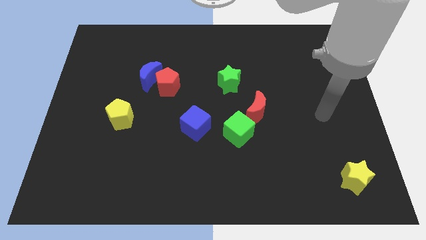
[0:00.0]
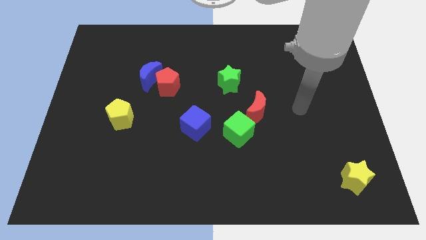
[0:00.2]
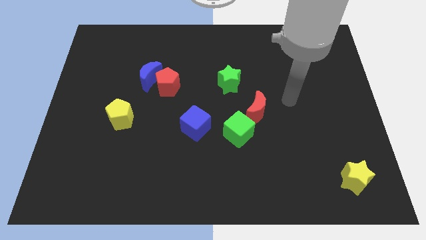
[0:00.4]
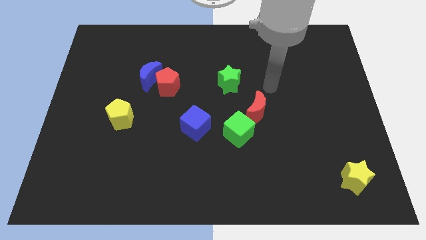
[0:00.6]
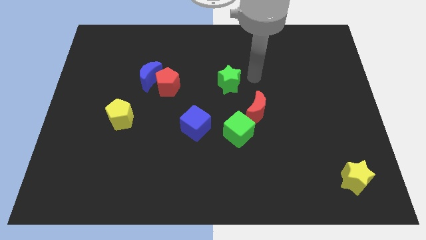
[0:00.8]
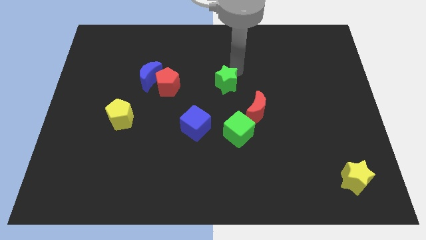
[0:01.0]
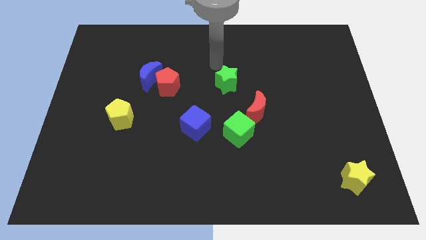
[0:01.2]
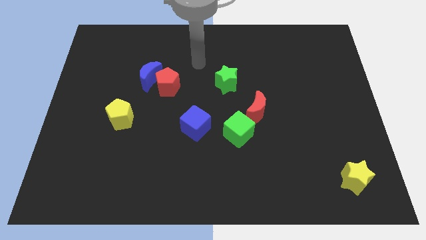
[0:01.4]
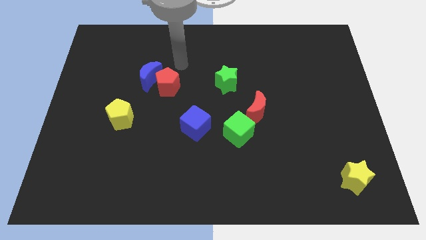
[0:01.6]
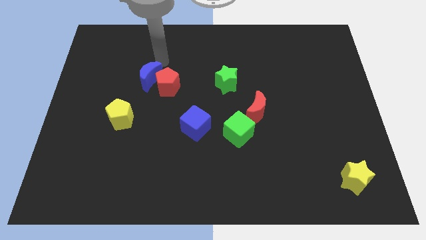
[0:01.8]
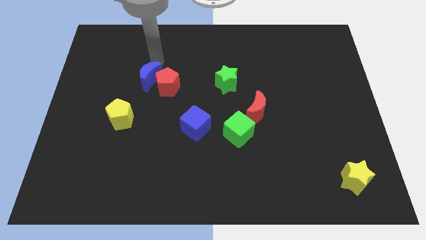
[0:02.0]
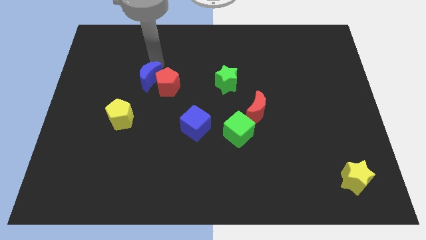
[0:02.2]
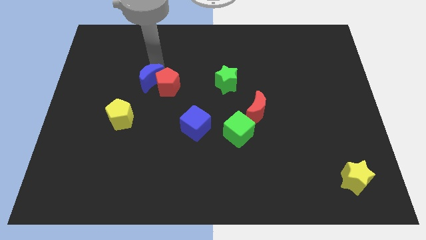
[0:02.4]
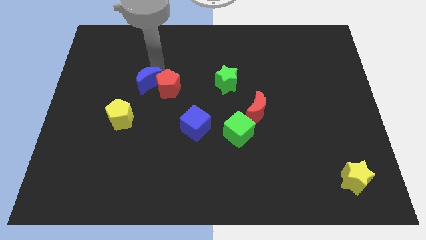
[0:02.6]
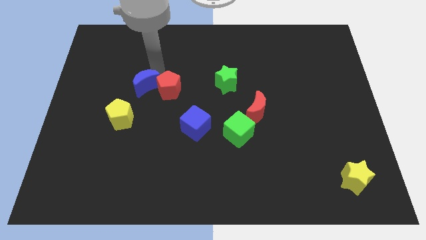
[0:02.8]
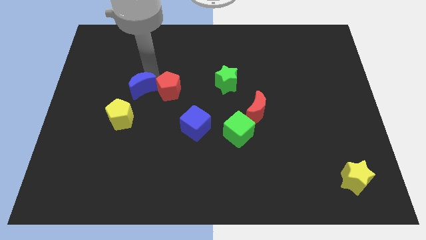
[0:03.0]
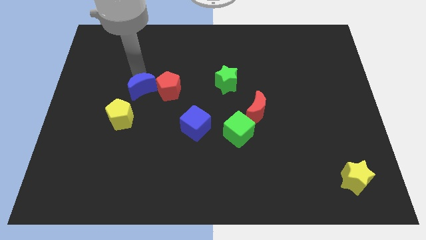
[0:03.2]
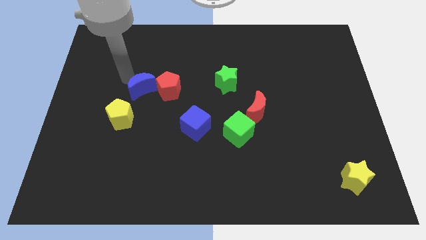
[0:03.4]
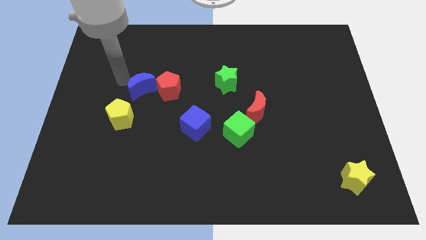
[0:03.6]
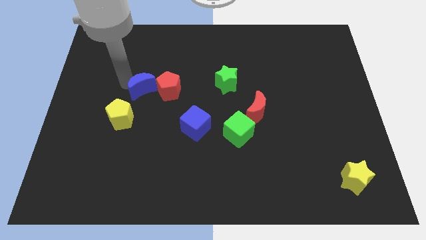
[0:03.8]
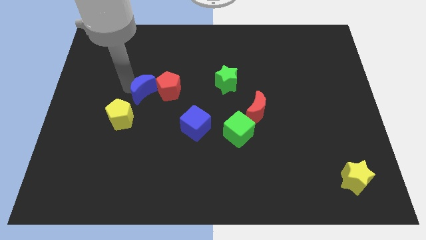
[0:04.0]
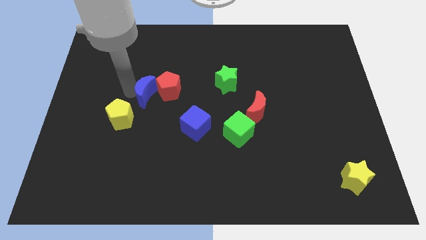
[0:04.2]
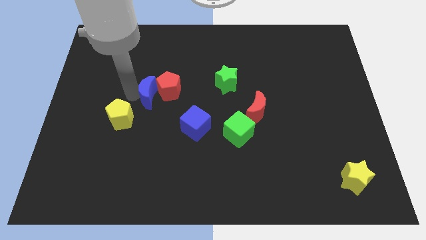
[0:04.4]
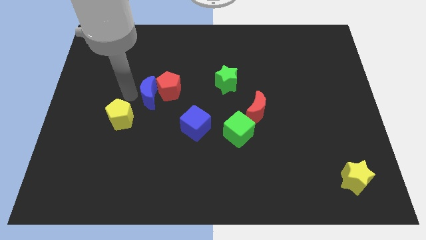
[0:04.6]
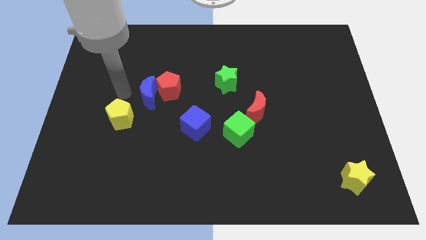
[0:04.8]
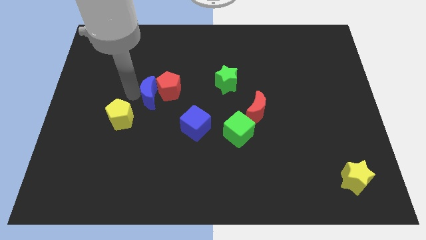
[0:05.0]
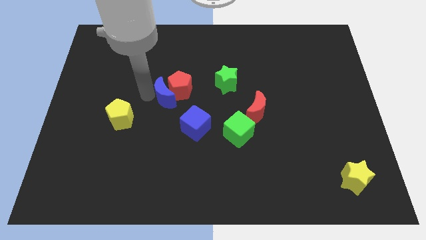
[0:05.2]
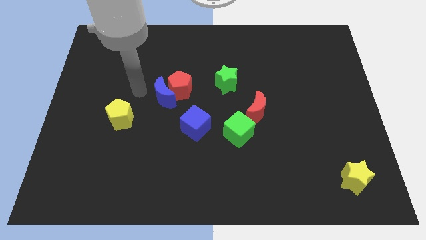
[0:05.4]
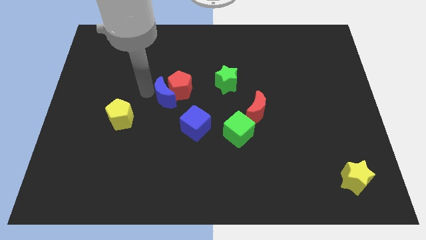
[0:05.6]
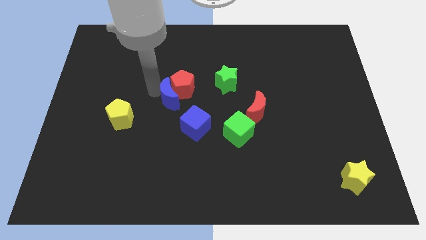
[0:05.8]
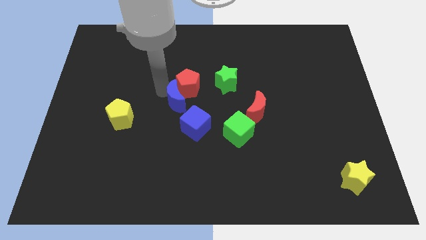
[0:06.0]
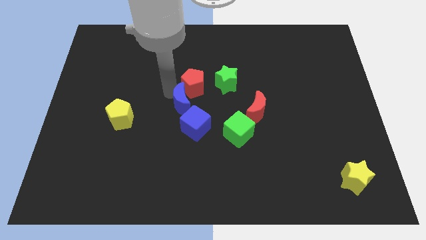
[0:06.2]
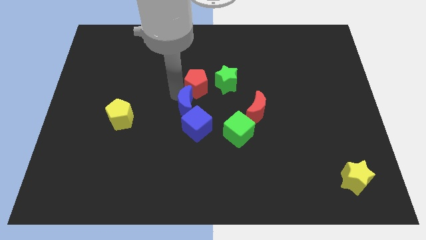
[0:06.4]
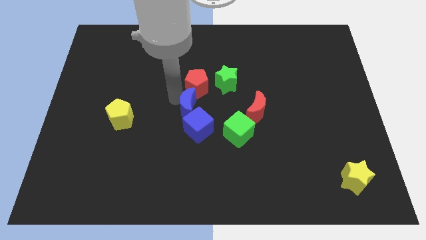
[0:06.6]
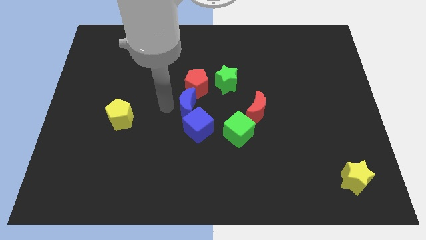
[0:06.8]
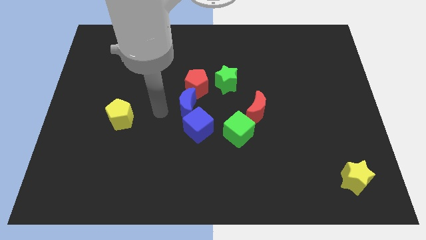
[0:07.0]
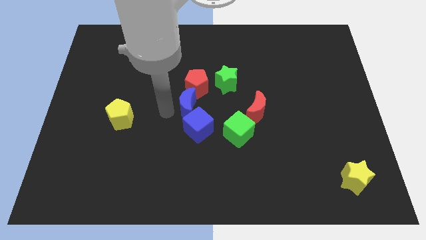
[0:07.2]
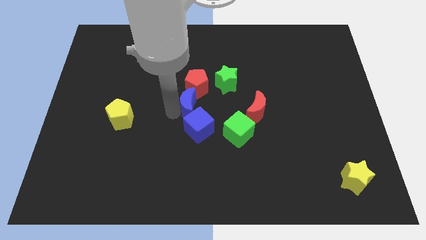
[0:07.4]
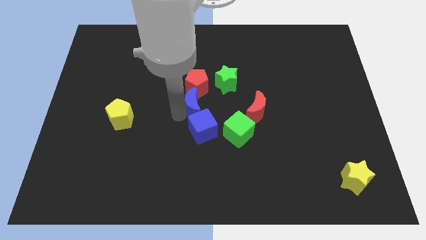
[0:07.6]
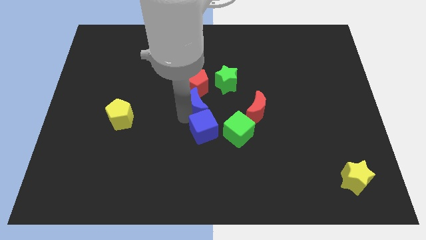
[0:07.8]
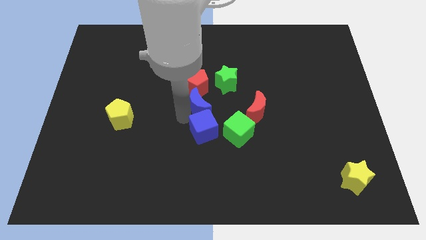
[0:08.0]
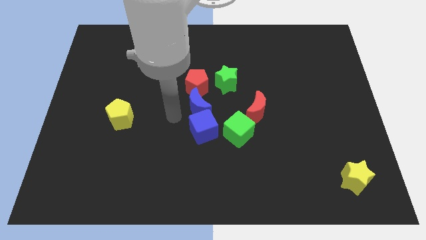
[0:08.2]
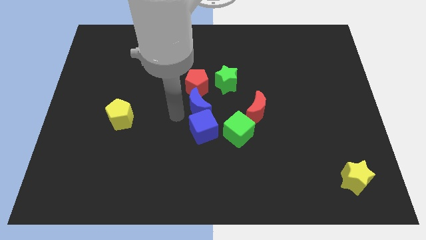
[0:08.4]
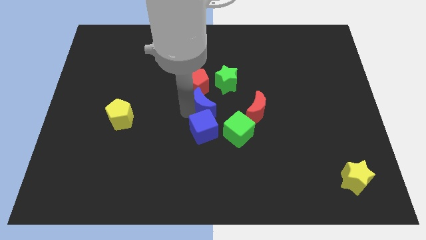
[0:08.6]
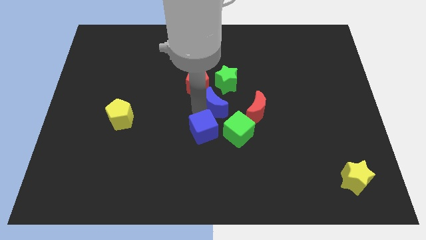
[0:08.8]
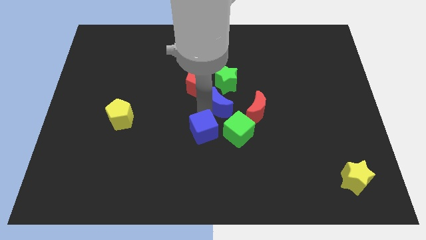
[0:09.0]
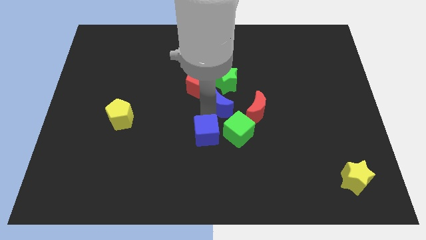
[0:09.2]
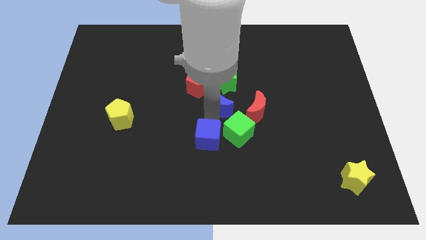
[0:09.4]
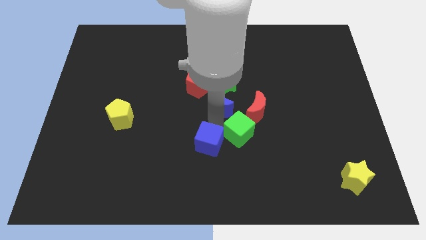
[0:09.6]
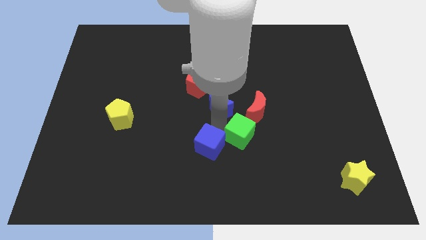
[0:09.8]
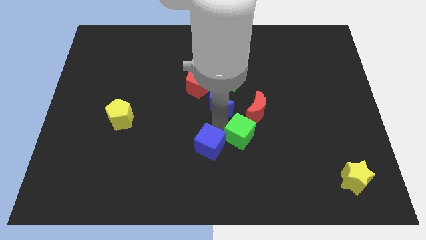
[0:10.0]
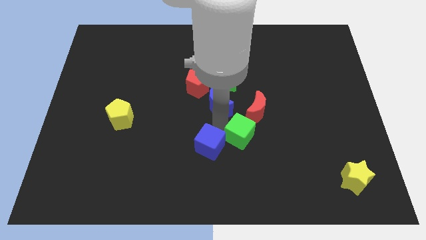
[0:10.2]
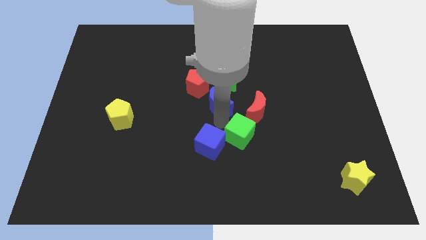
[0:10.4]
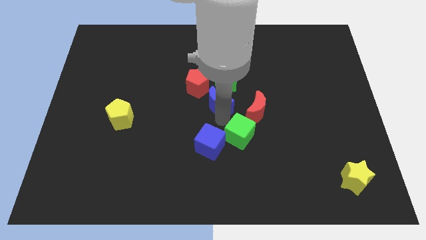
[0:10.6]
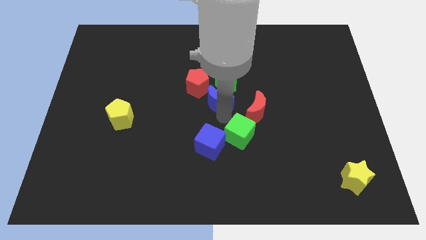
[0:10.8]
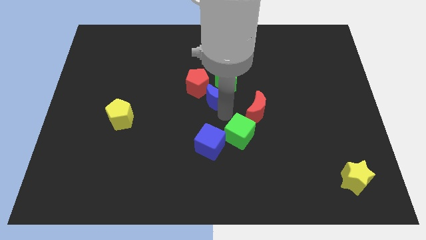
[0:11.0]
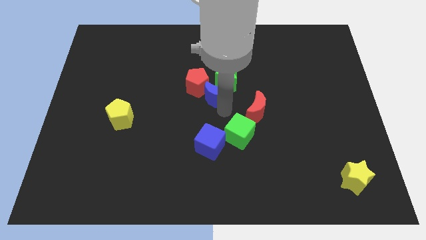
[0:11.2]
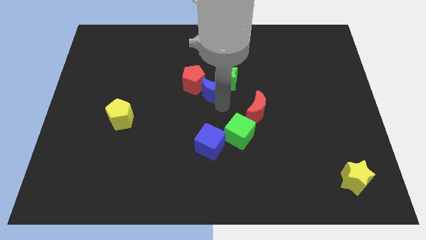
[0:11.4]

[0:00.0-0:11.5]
slide the blue moon to the bottom right side of the red pentagon

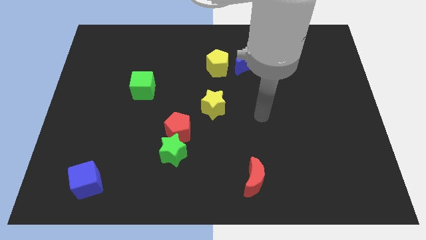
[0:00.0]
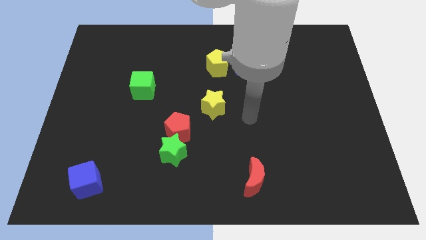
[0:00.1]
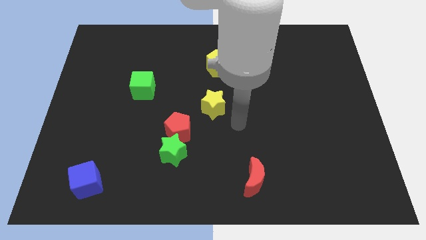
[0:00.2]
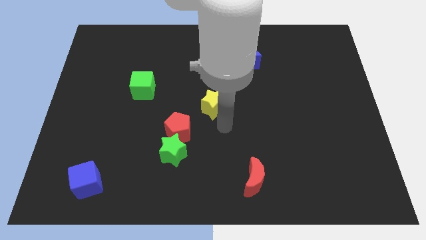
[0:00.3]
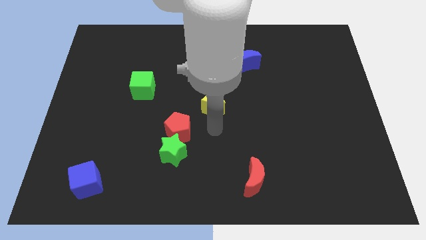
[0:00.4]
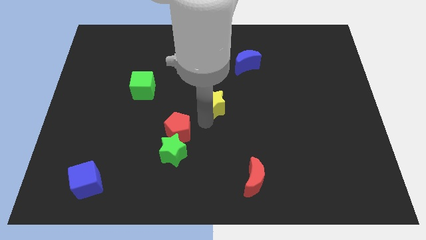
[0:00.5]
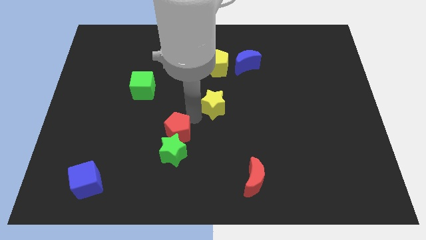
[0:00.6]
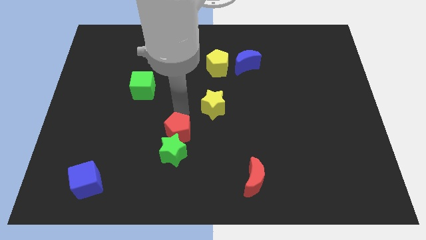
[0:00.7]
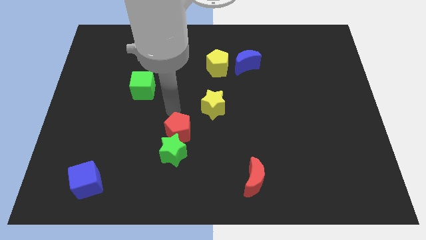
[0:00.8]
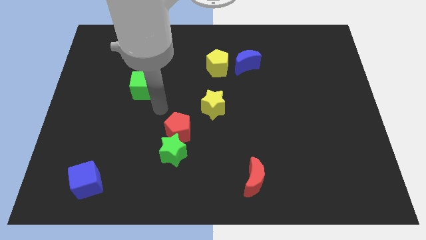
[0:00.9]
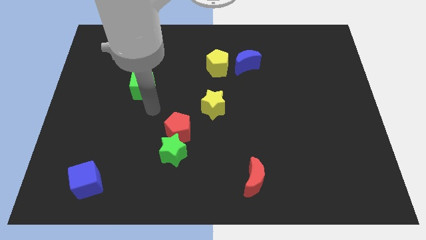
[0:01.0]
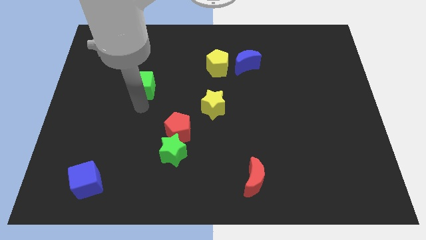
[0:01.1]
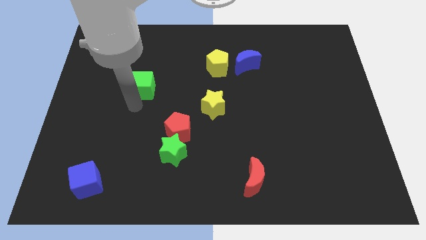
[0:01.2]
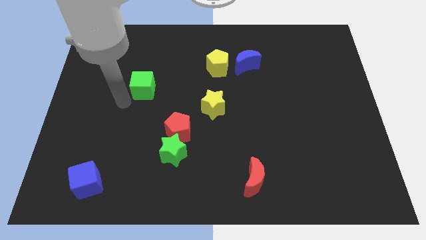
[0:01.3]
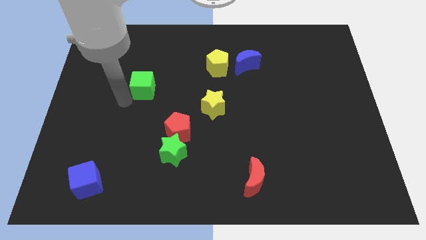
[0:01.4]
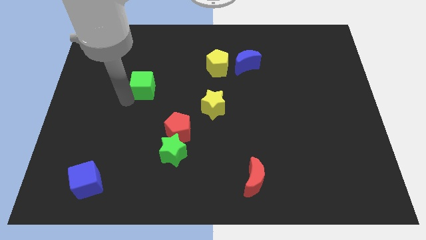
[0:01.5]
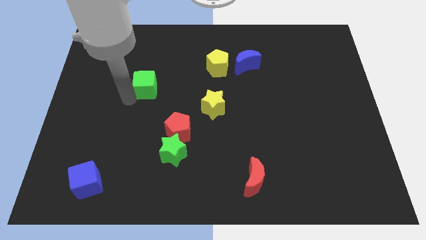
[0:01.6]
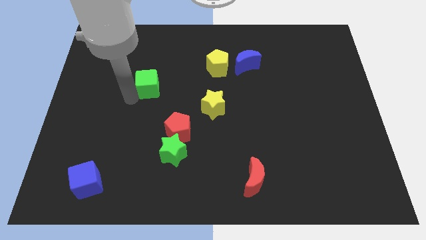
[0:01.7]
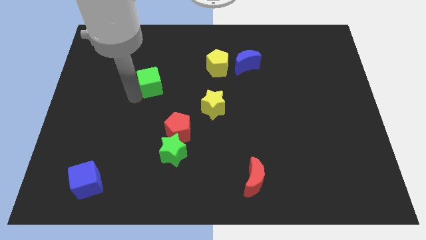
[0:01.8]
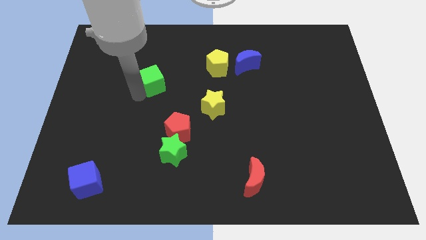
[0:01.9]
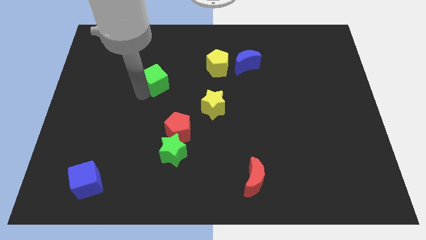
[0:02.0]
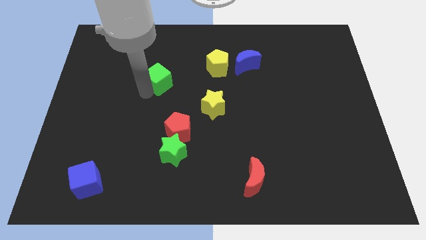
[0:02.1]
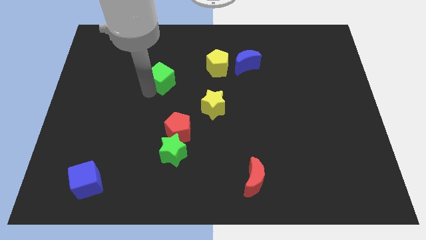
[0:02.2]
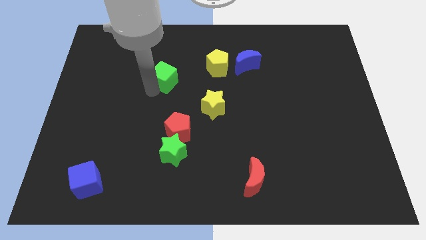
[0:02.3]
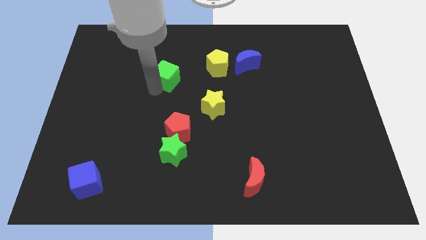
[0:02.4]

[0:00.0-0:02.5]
push the green cube just left of the yellow pentagon
